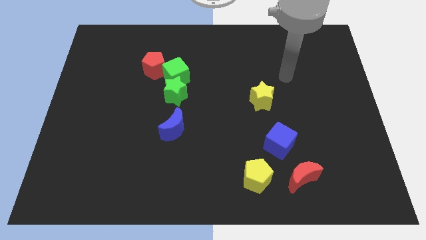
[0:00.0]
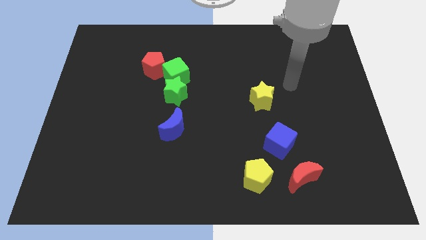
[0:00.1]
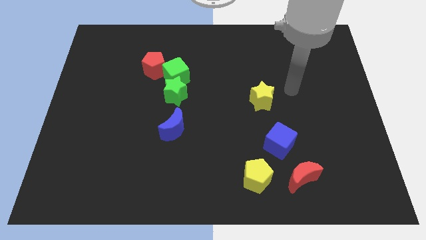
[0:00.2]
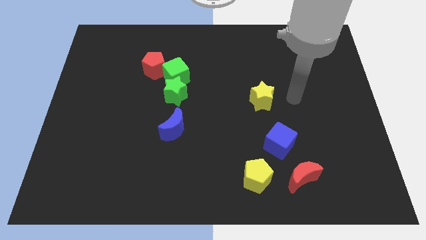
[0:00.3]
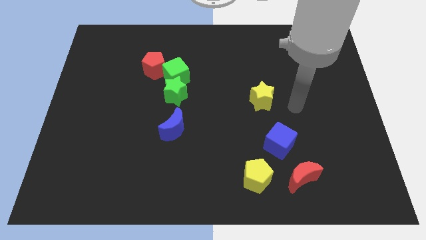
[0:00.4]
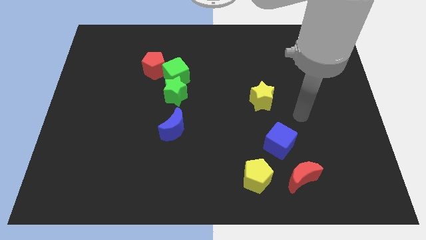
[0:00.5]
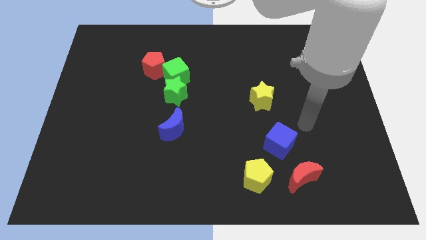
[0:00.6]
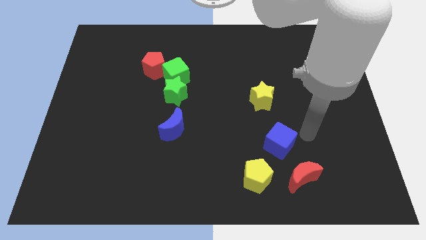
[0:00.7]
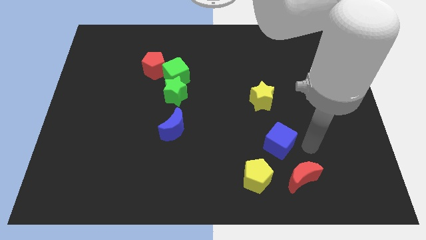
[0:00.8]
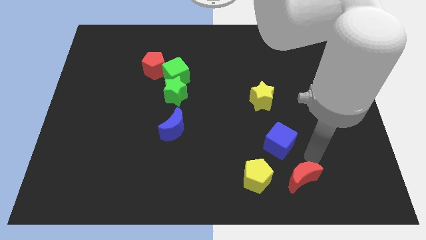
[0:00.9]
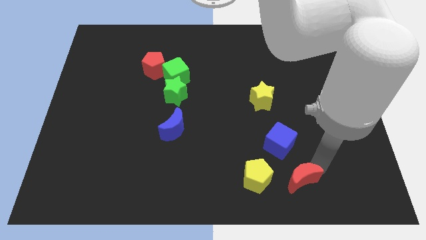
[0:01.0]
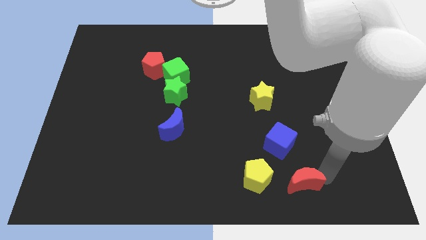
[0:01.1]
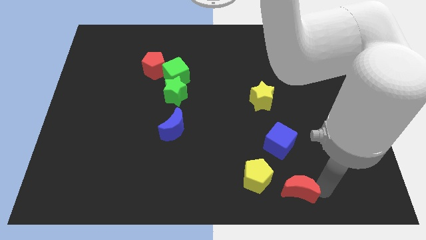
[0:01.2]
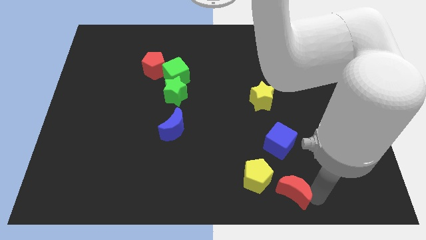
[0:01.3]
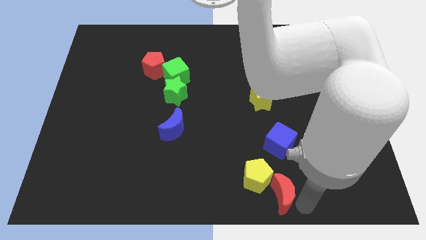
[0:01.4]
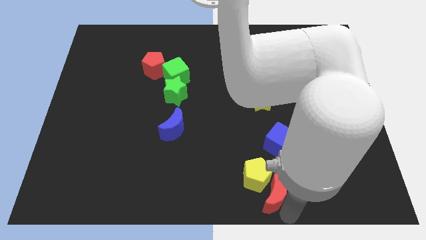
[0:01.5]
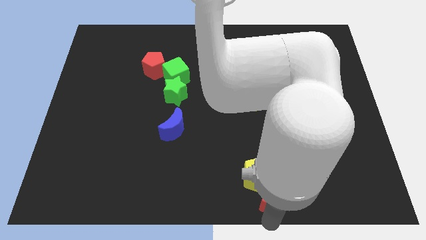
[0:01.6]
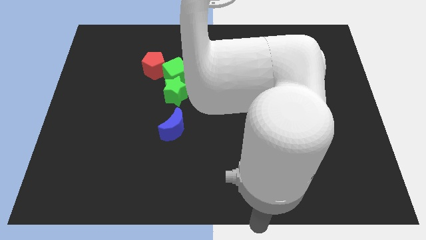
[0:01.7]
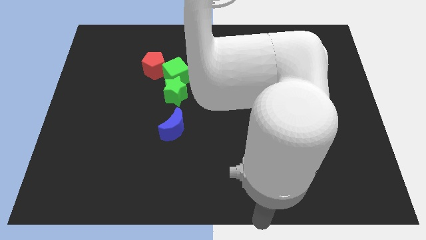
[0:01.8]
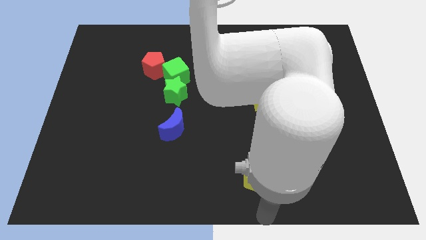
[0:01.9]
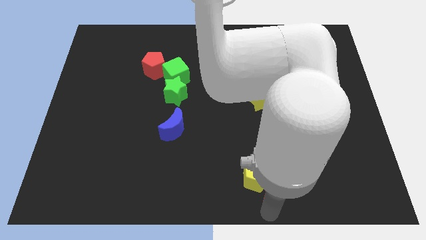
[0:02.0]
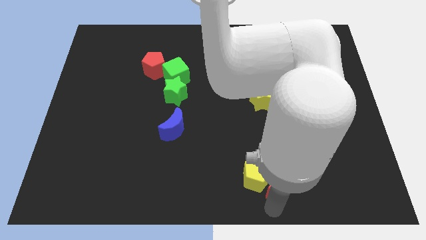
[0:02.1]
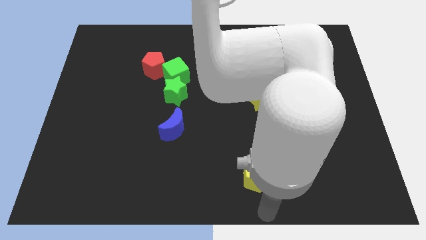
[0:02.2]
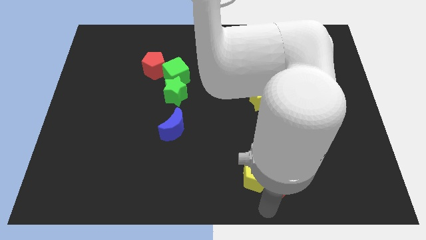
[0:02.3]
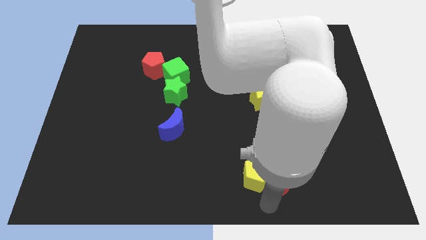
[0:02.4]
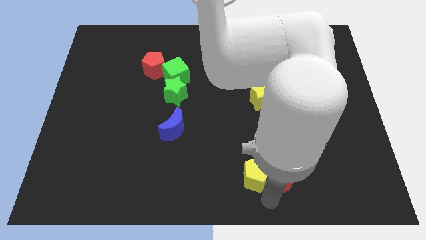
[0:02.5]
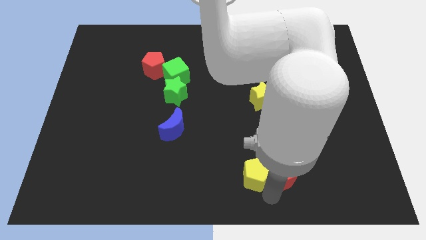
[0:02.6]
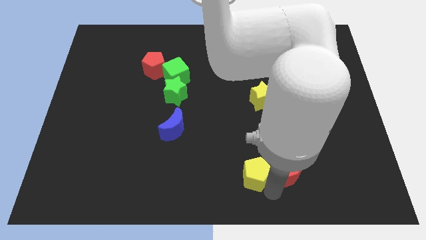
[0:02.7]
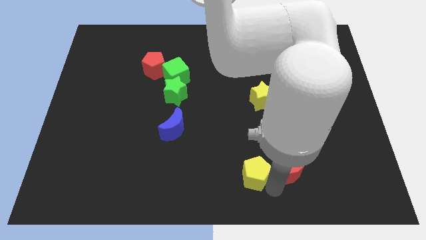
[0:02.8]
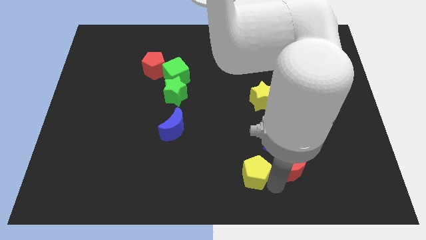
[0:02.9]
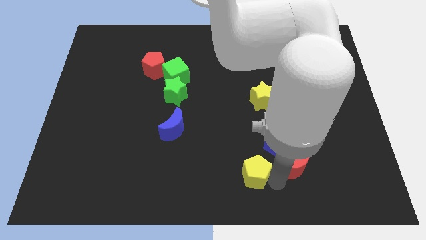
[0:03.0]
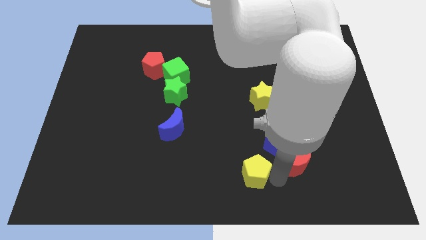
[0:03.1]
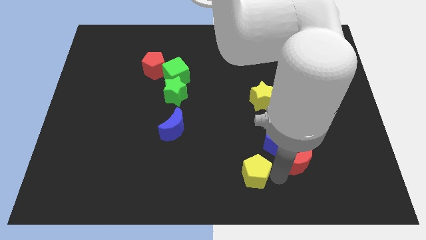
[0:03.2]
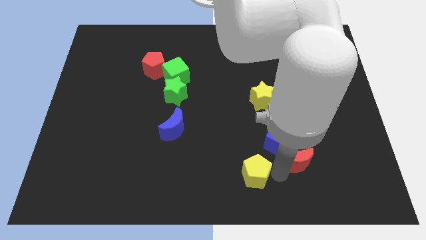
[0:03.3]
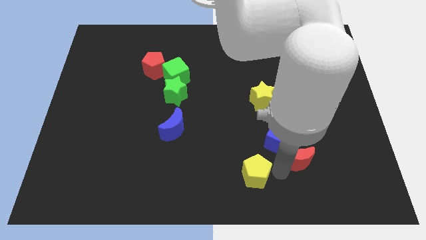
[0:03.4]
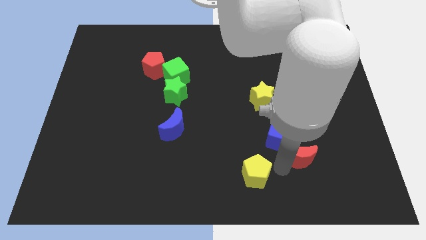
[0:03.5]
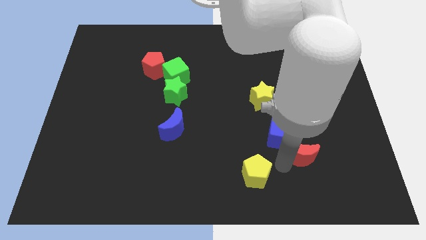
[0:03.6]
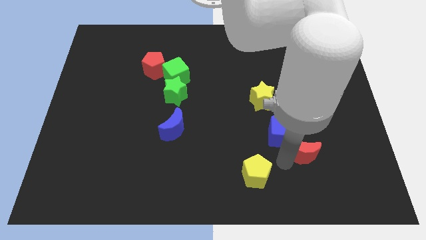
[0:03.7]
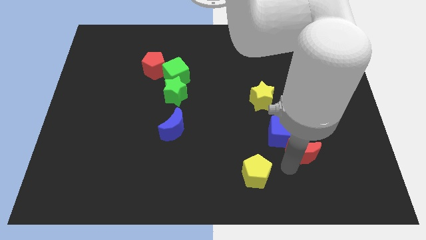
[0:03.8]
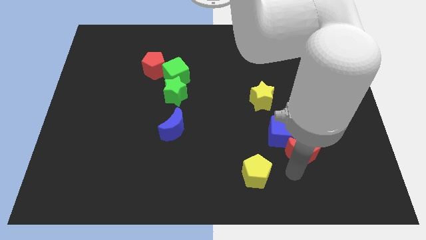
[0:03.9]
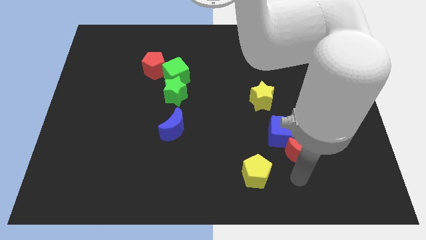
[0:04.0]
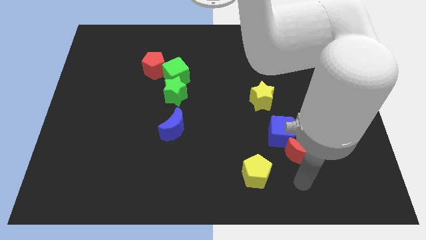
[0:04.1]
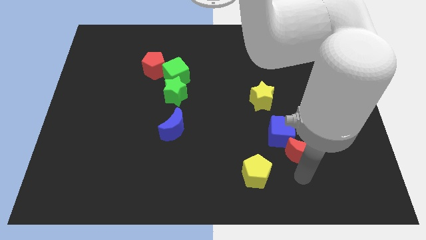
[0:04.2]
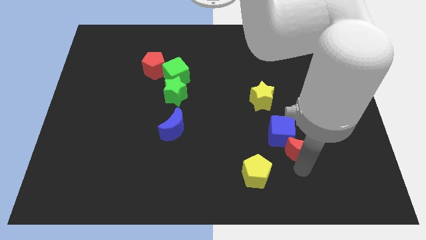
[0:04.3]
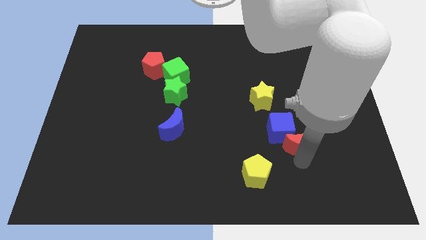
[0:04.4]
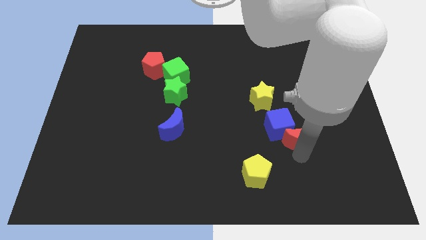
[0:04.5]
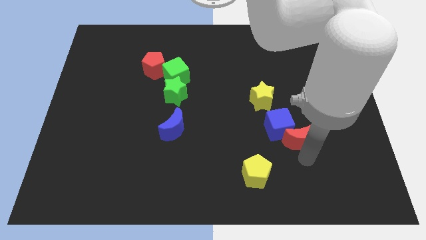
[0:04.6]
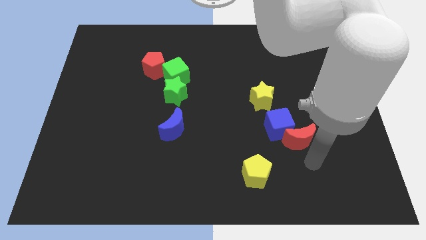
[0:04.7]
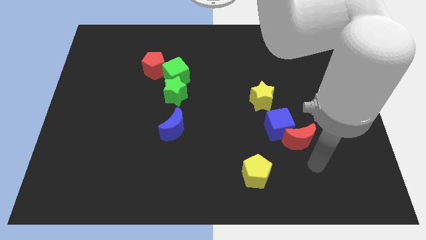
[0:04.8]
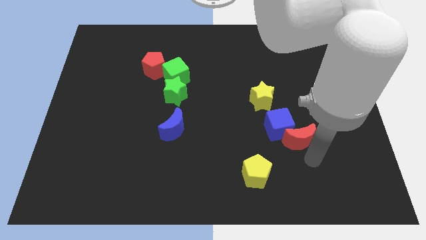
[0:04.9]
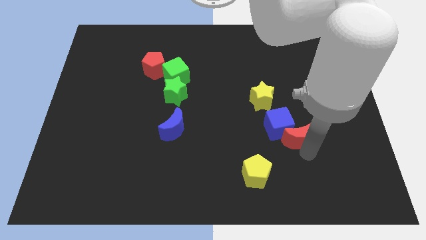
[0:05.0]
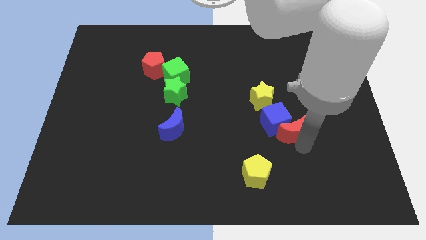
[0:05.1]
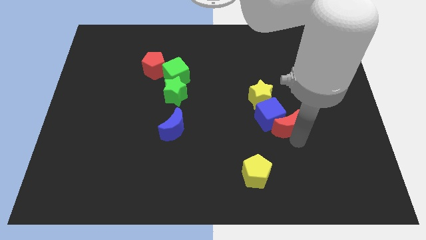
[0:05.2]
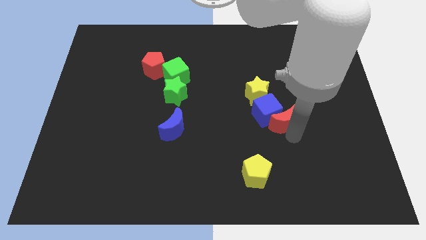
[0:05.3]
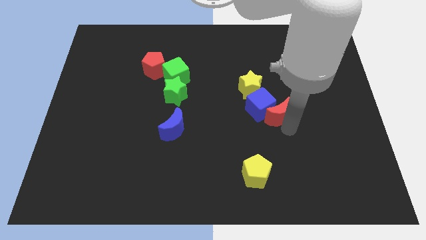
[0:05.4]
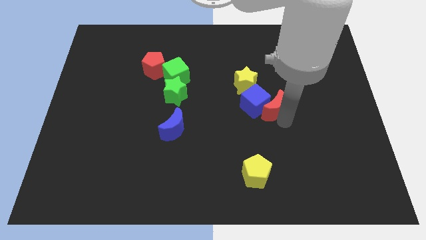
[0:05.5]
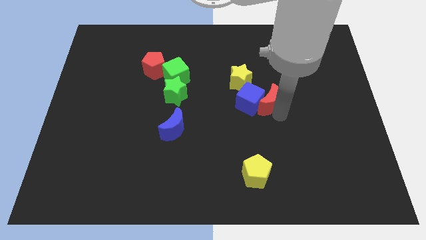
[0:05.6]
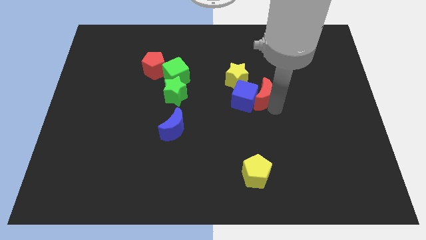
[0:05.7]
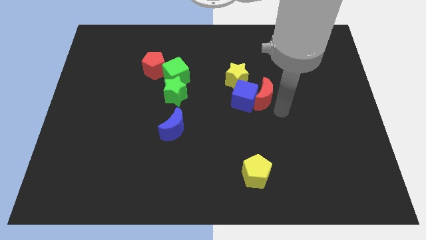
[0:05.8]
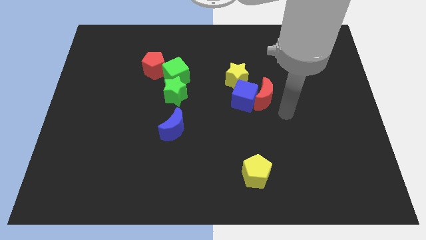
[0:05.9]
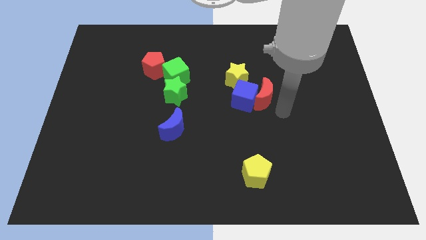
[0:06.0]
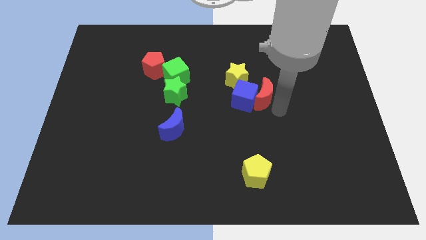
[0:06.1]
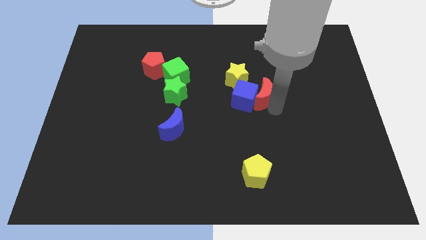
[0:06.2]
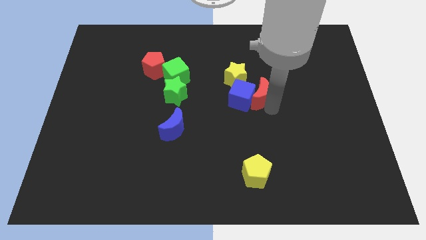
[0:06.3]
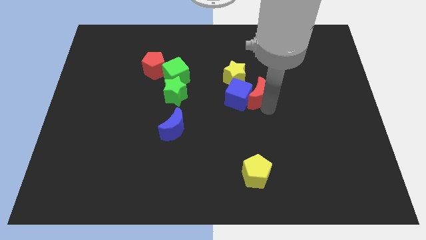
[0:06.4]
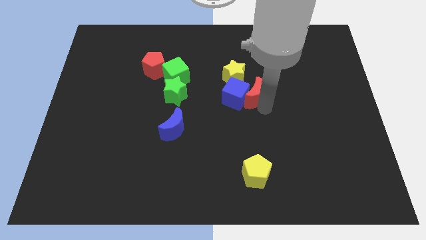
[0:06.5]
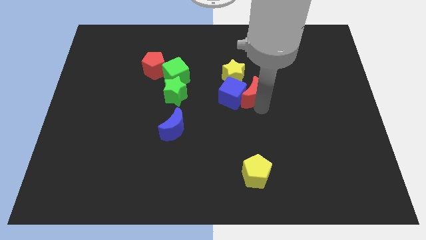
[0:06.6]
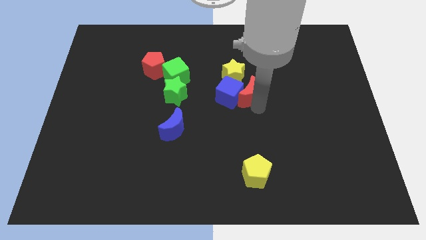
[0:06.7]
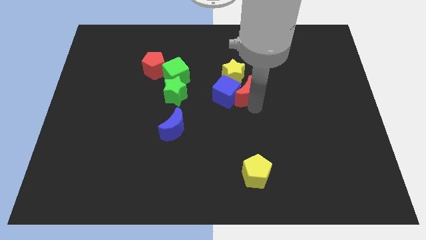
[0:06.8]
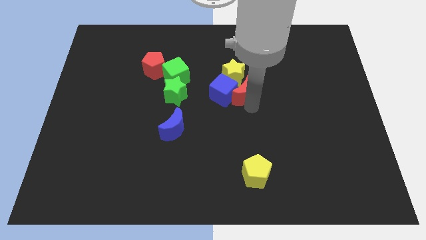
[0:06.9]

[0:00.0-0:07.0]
move the red moon to the yellow star

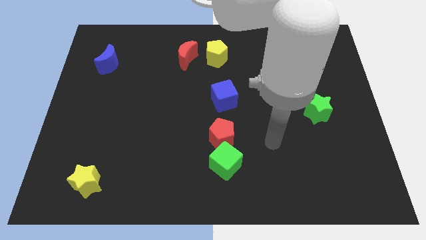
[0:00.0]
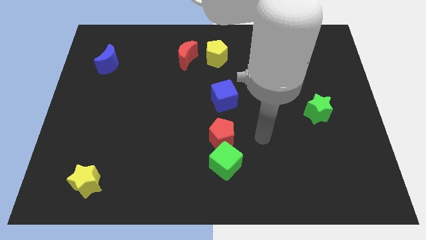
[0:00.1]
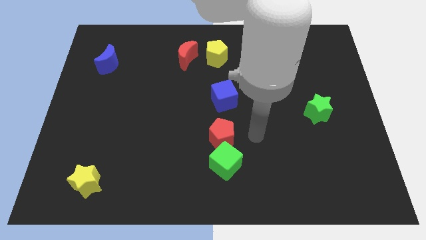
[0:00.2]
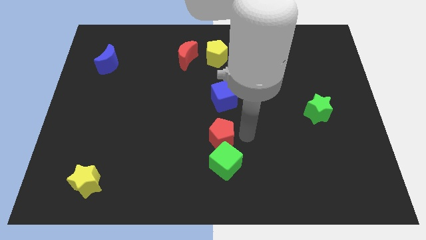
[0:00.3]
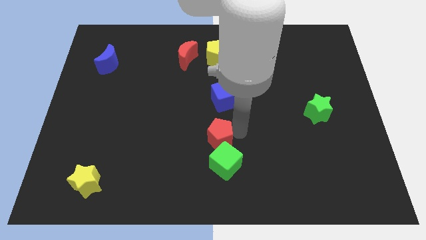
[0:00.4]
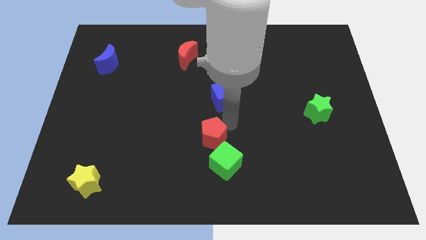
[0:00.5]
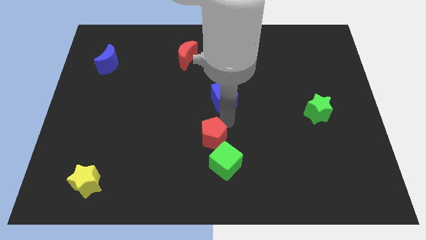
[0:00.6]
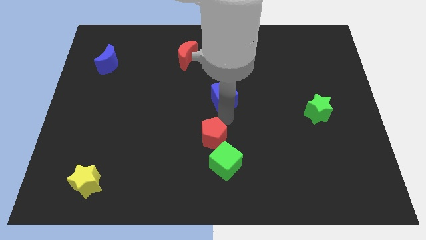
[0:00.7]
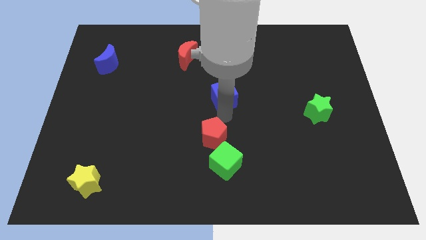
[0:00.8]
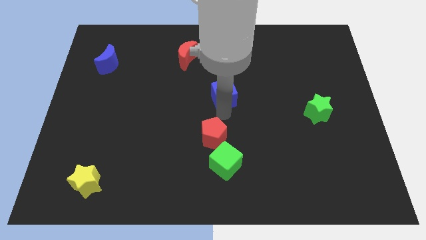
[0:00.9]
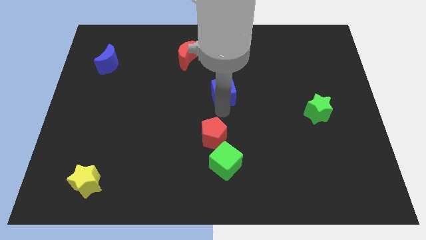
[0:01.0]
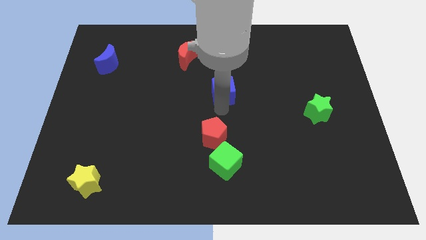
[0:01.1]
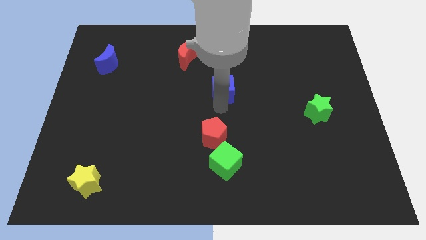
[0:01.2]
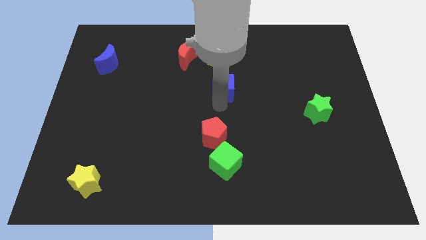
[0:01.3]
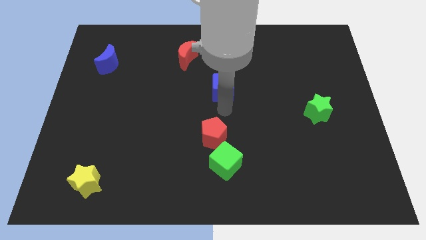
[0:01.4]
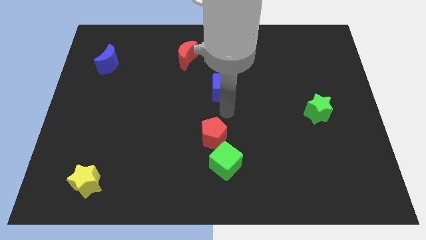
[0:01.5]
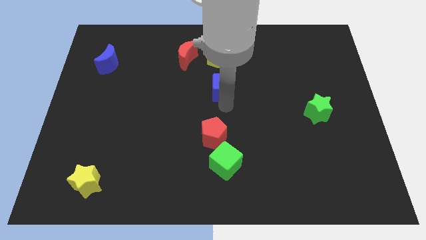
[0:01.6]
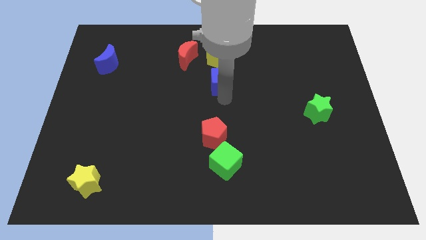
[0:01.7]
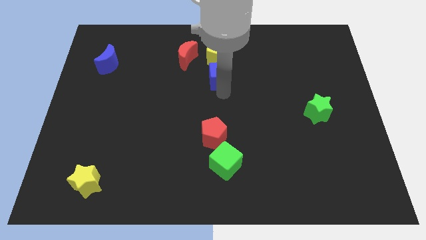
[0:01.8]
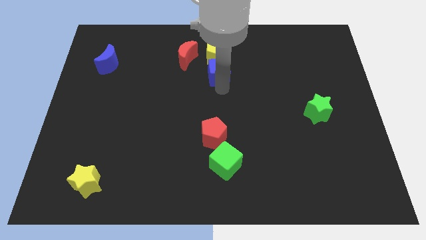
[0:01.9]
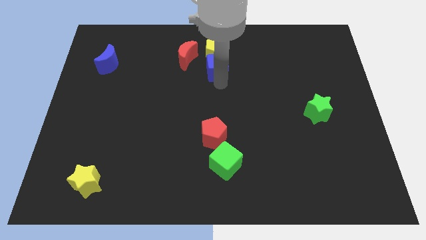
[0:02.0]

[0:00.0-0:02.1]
move the blue cube next to the yellow pentagon
